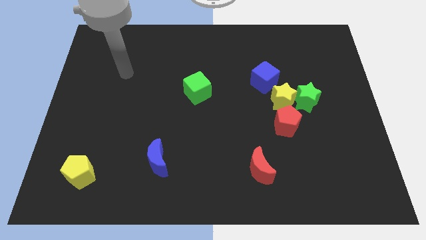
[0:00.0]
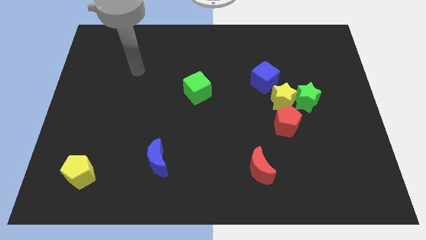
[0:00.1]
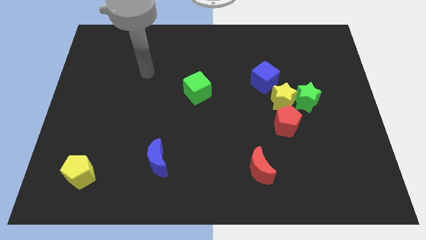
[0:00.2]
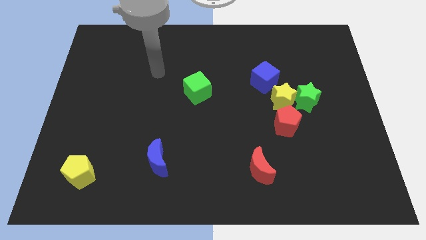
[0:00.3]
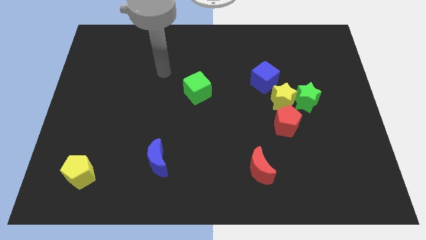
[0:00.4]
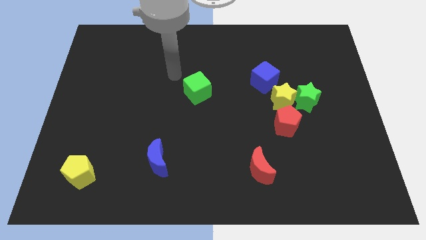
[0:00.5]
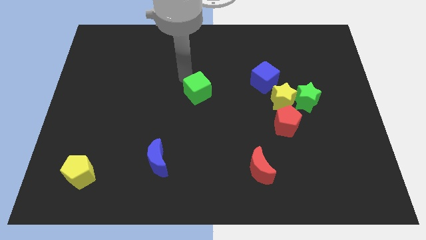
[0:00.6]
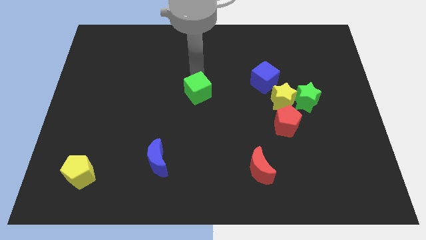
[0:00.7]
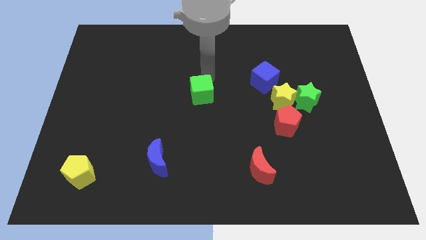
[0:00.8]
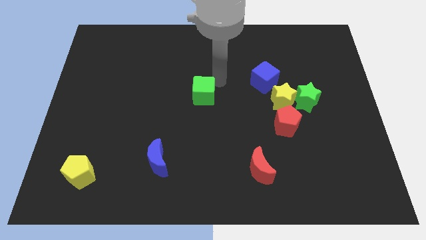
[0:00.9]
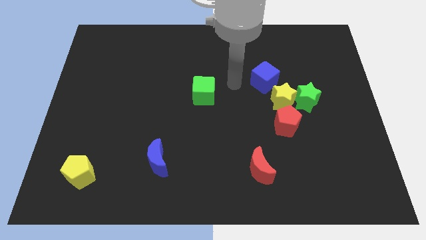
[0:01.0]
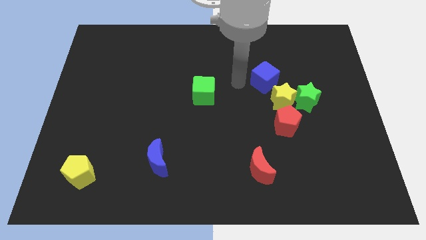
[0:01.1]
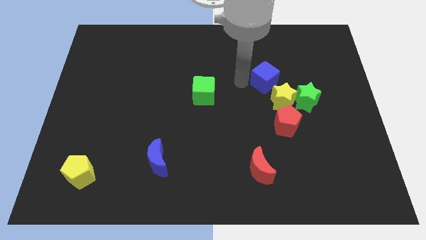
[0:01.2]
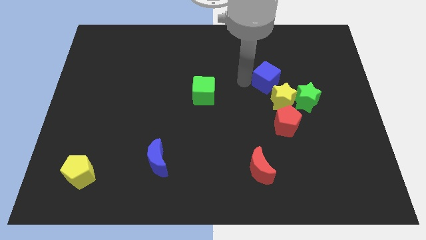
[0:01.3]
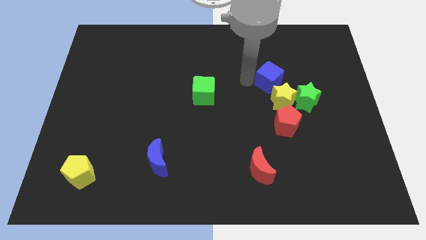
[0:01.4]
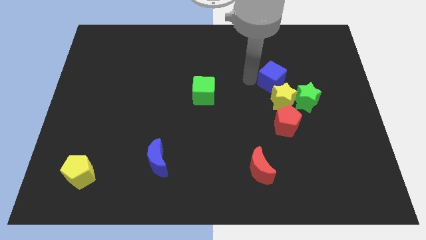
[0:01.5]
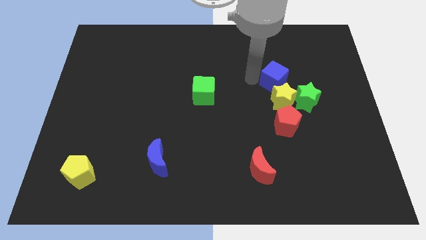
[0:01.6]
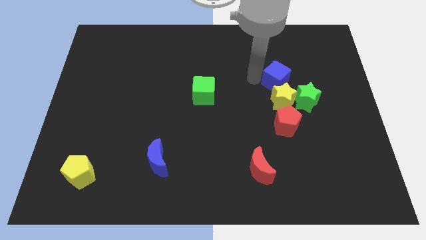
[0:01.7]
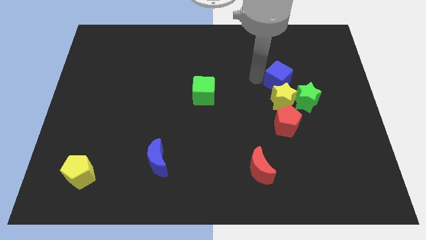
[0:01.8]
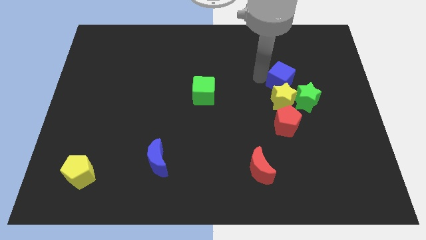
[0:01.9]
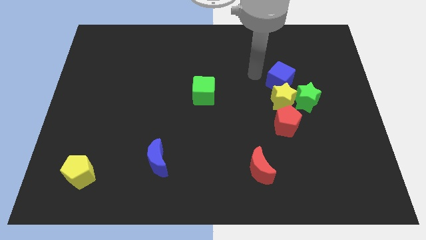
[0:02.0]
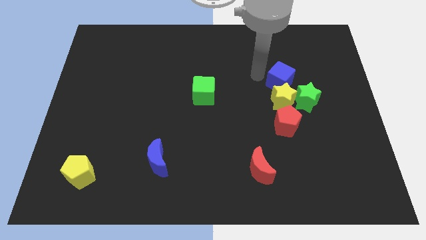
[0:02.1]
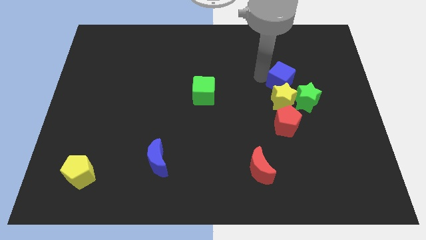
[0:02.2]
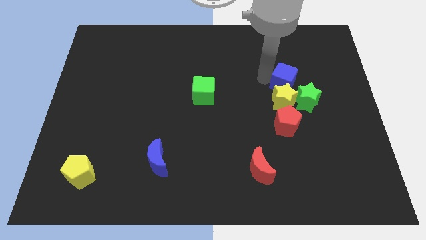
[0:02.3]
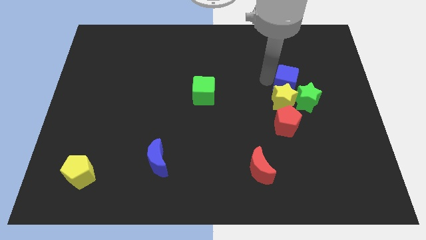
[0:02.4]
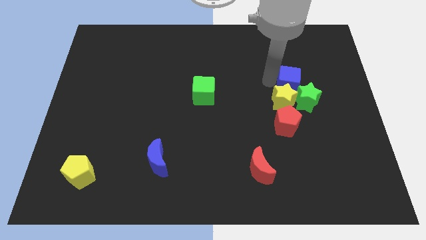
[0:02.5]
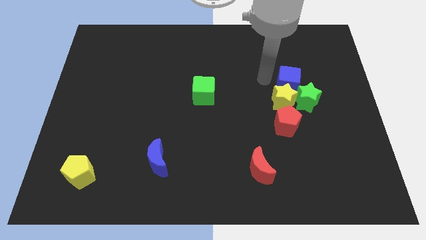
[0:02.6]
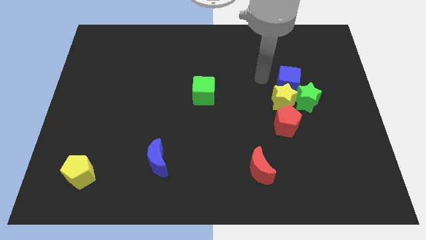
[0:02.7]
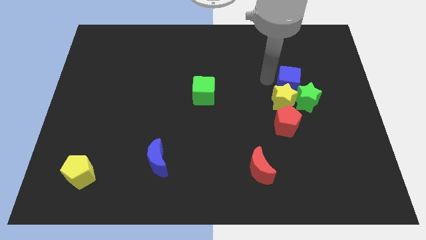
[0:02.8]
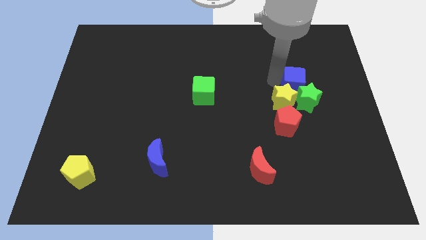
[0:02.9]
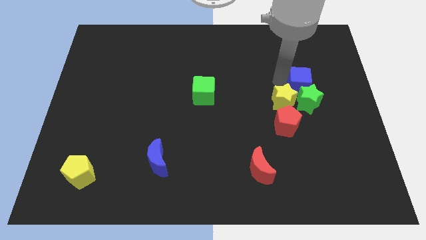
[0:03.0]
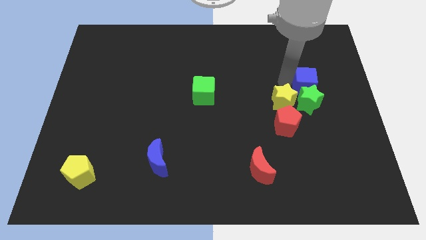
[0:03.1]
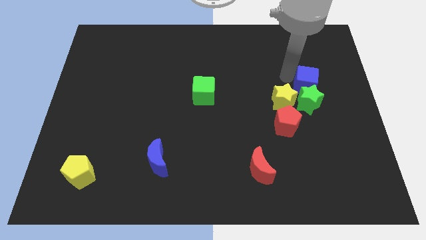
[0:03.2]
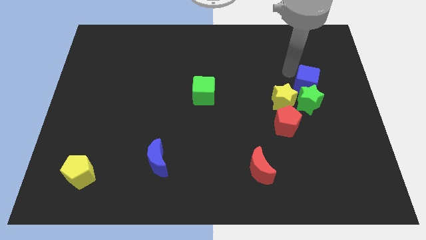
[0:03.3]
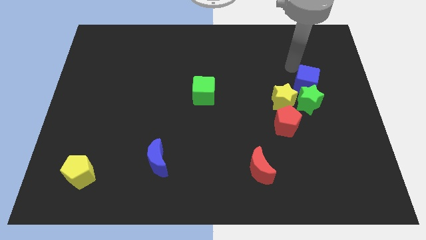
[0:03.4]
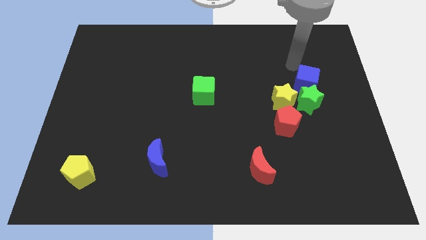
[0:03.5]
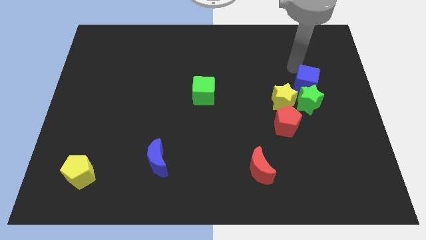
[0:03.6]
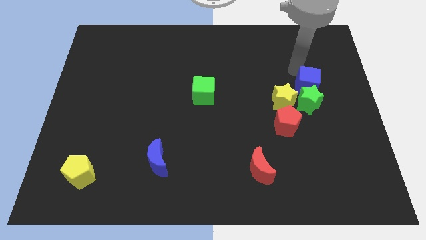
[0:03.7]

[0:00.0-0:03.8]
move the blue cube a little bit downwards and then right

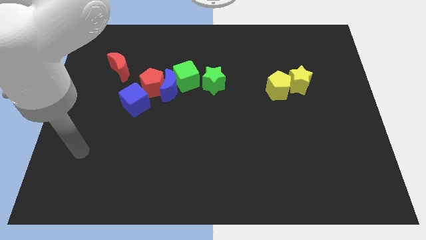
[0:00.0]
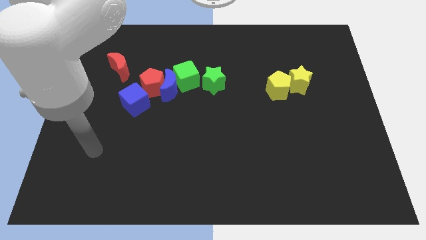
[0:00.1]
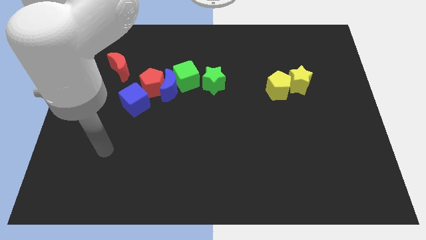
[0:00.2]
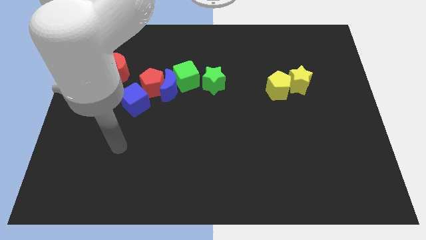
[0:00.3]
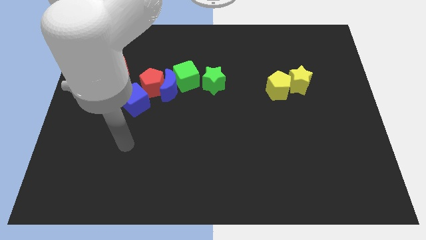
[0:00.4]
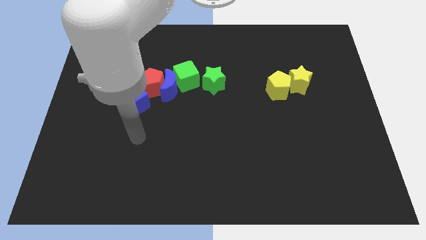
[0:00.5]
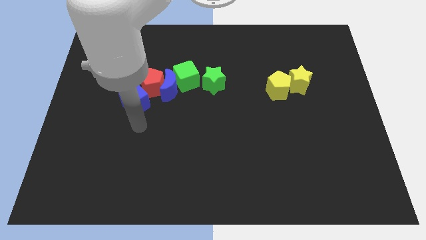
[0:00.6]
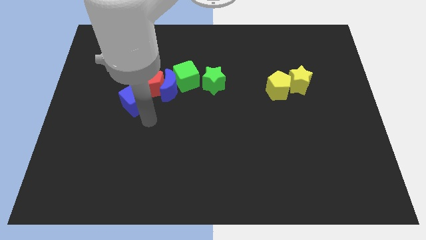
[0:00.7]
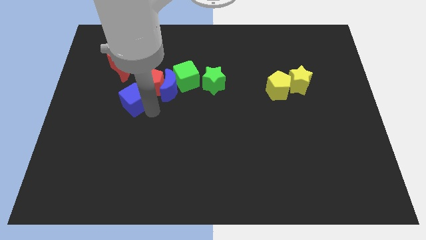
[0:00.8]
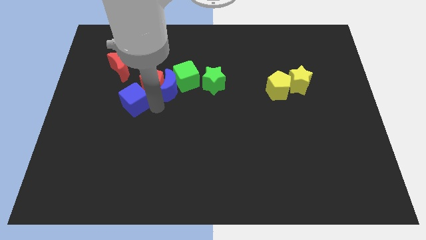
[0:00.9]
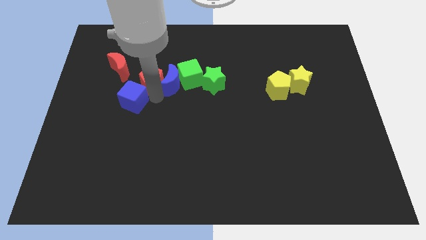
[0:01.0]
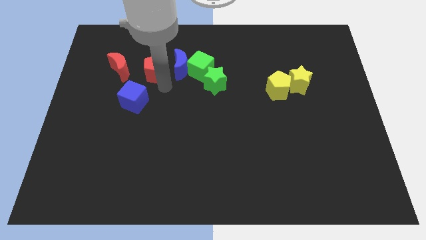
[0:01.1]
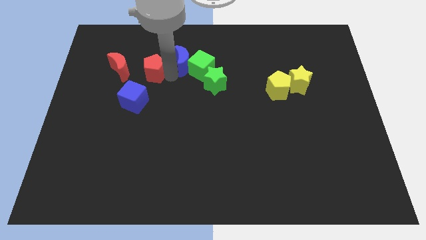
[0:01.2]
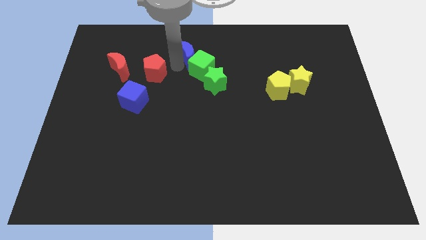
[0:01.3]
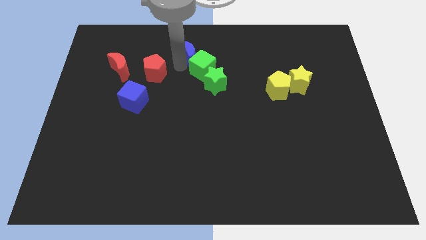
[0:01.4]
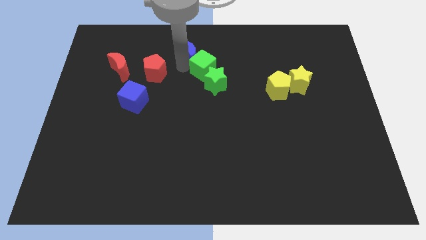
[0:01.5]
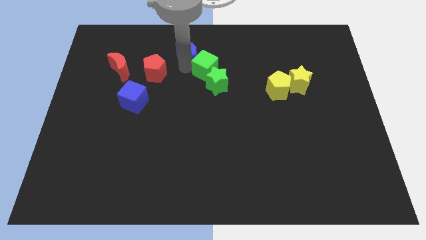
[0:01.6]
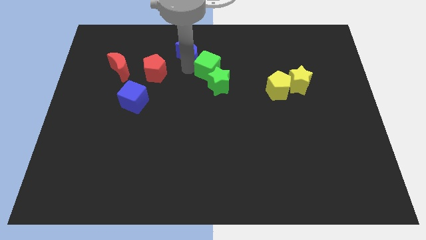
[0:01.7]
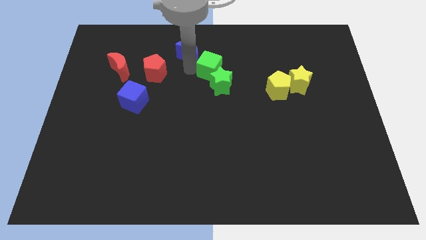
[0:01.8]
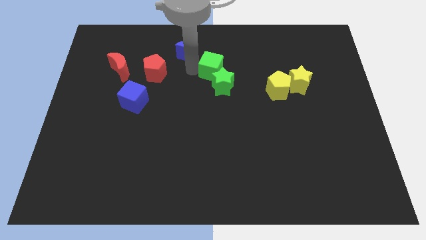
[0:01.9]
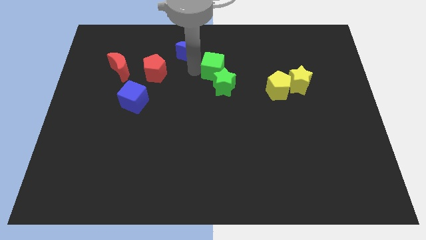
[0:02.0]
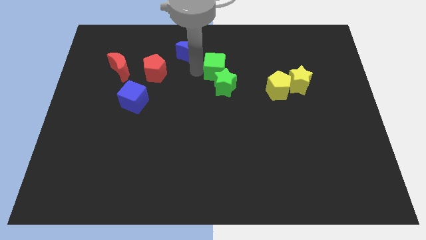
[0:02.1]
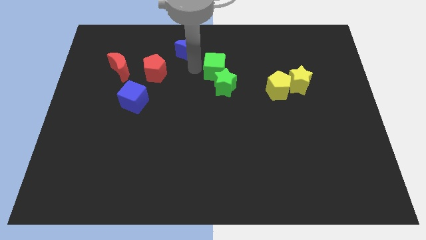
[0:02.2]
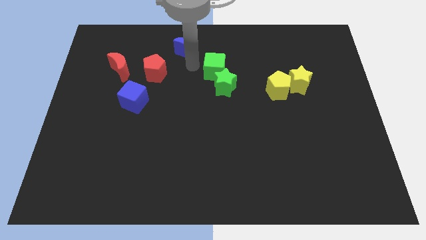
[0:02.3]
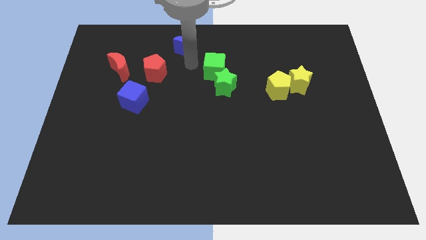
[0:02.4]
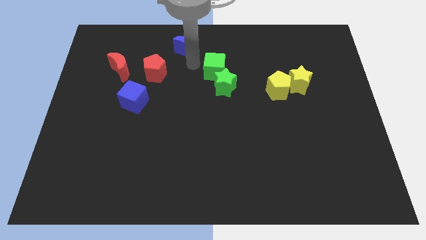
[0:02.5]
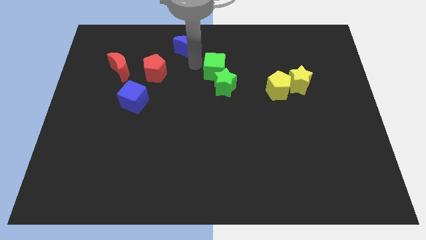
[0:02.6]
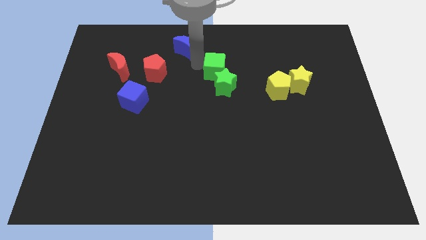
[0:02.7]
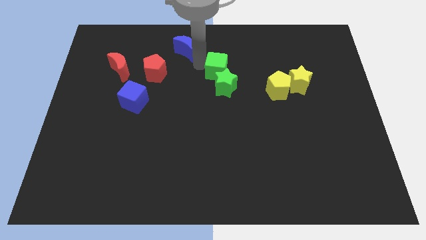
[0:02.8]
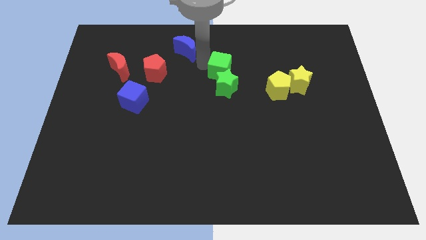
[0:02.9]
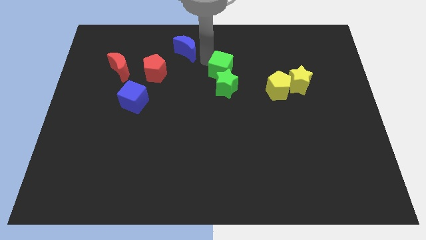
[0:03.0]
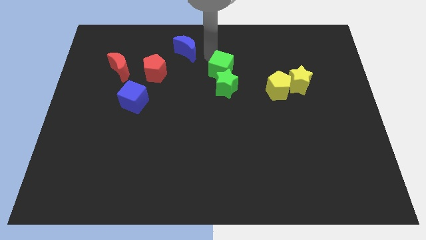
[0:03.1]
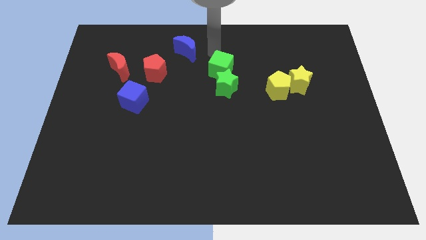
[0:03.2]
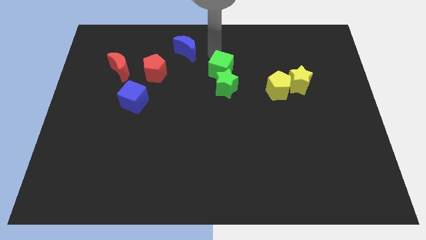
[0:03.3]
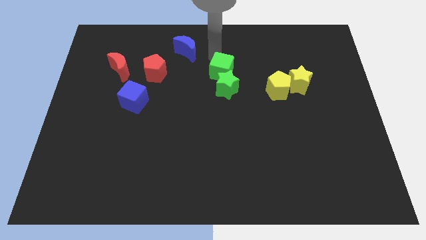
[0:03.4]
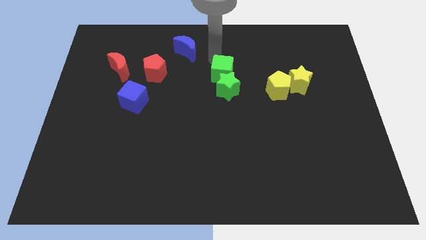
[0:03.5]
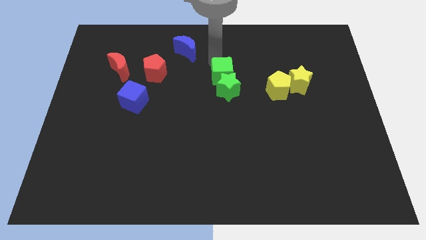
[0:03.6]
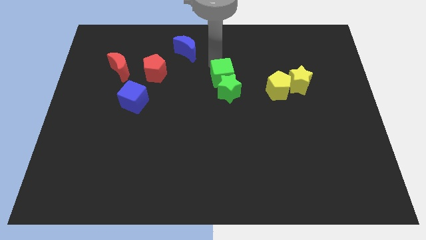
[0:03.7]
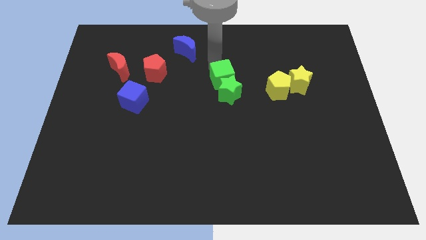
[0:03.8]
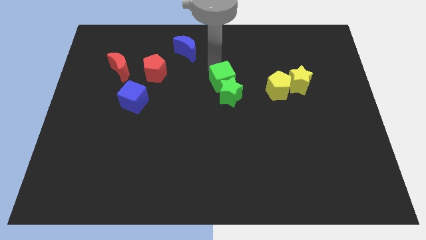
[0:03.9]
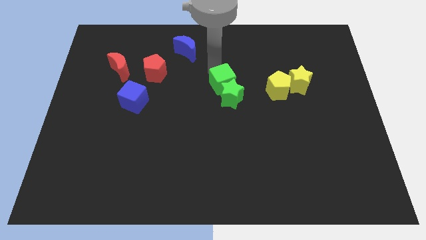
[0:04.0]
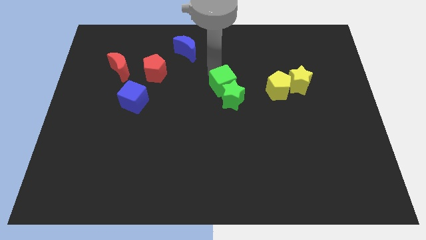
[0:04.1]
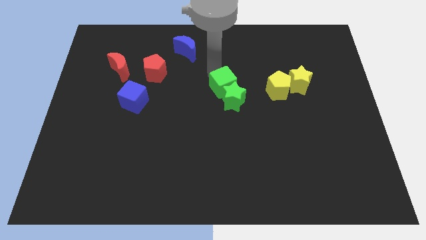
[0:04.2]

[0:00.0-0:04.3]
slightly move the green cube diagonally downwards and to the right

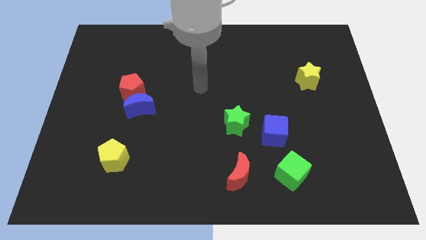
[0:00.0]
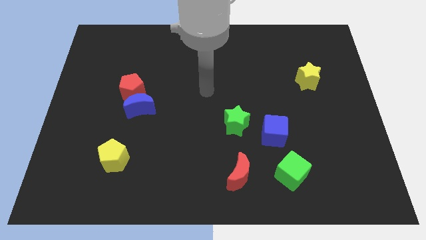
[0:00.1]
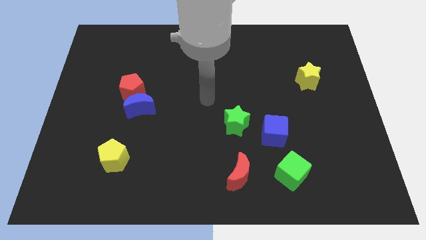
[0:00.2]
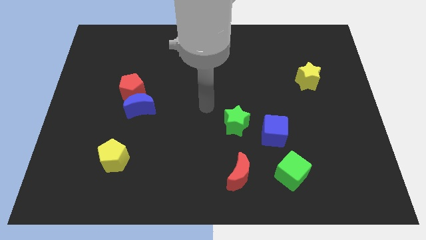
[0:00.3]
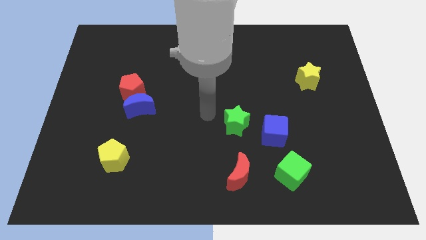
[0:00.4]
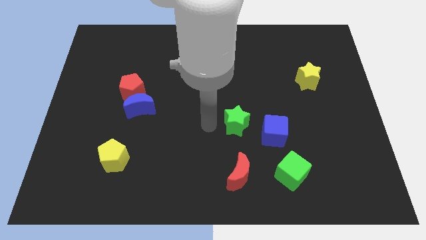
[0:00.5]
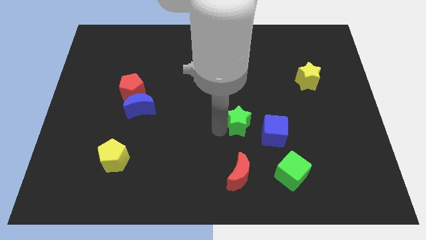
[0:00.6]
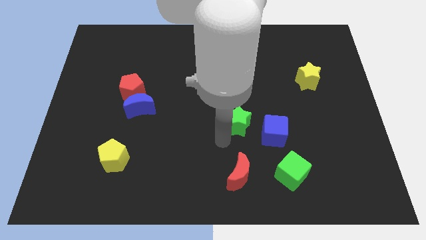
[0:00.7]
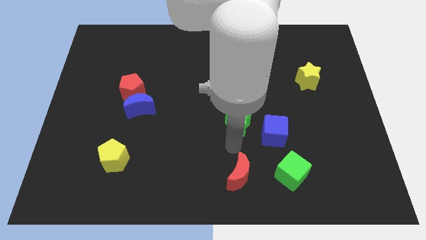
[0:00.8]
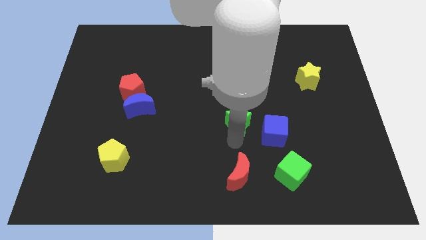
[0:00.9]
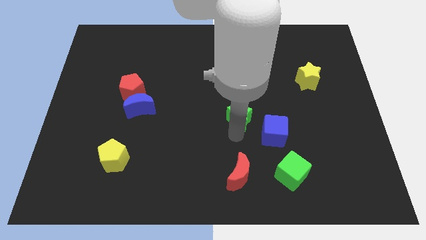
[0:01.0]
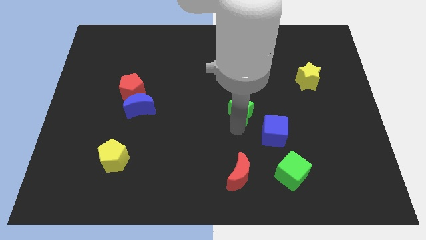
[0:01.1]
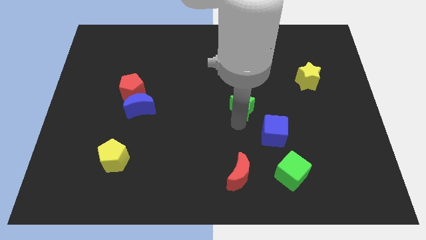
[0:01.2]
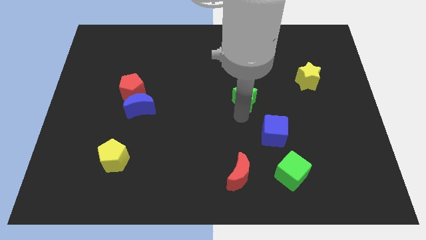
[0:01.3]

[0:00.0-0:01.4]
slightly slide the green star upwards
